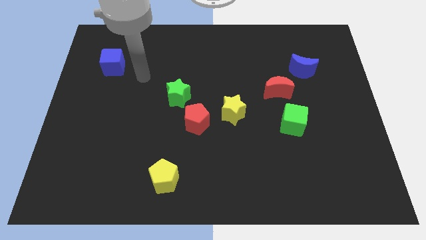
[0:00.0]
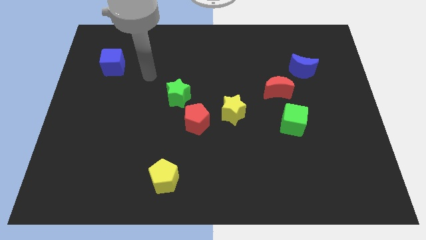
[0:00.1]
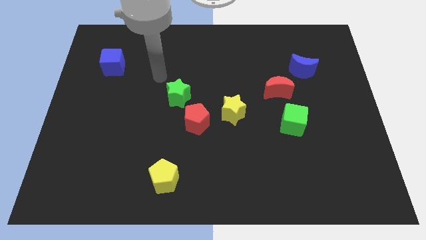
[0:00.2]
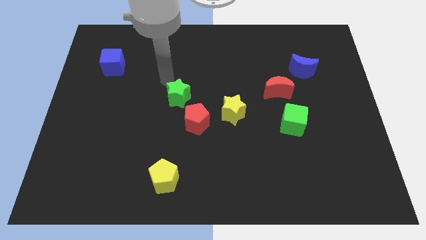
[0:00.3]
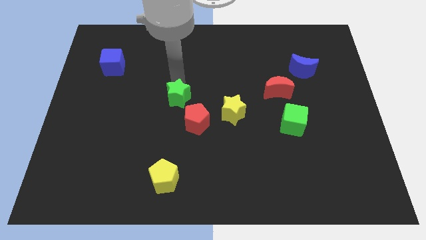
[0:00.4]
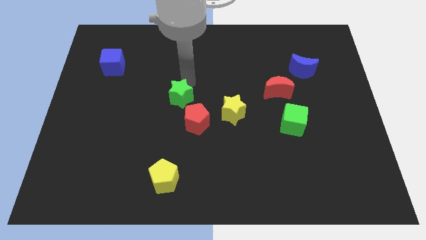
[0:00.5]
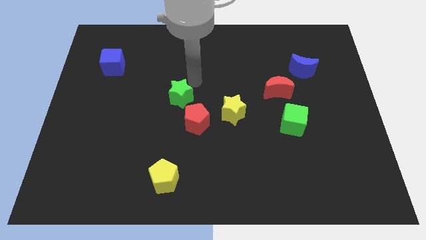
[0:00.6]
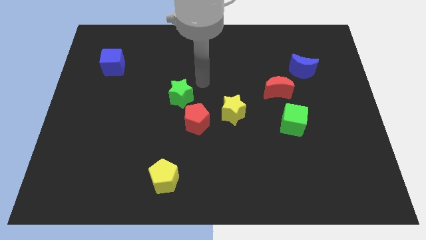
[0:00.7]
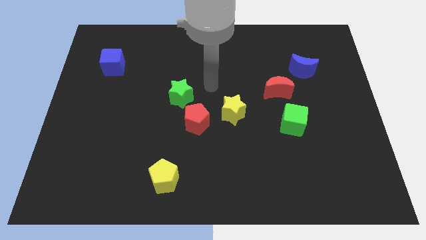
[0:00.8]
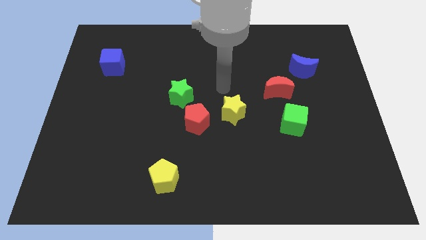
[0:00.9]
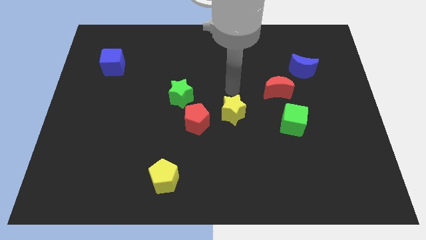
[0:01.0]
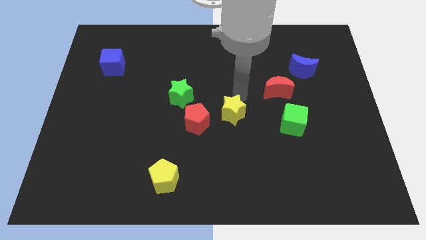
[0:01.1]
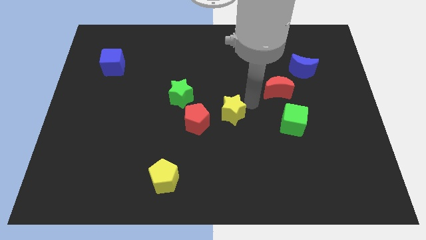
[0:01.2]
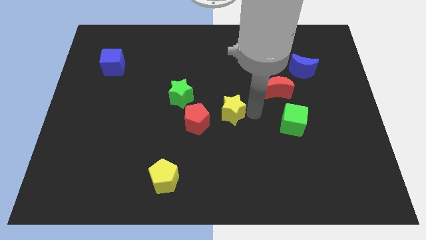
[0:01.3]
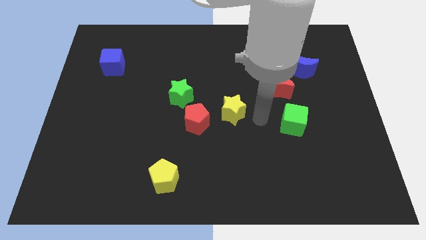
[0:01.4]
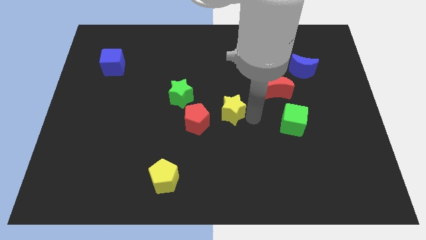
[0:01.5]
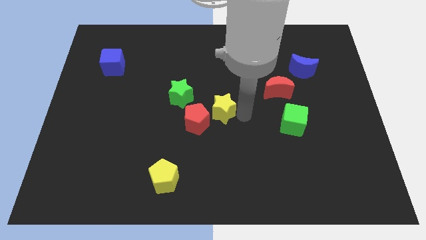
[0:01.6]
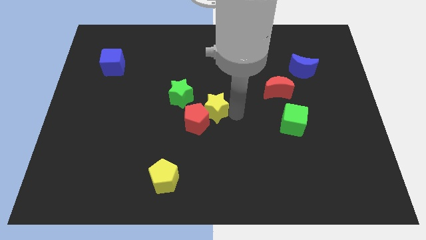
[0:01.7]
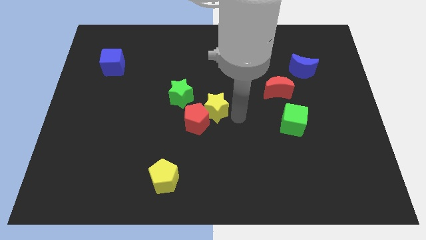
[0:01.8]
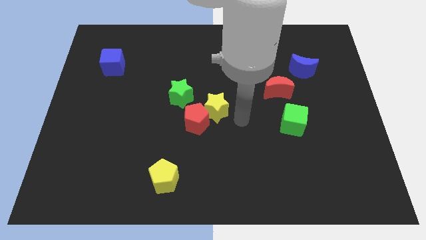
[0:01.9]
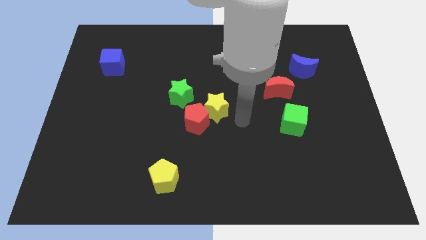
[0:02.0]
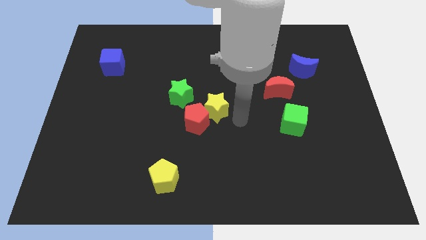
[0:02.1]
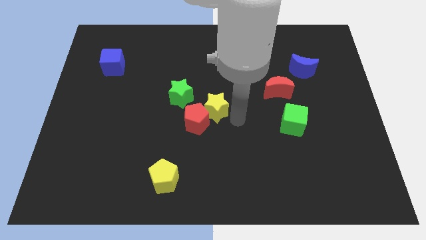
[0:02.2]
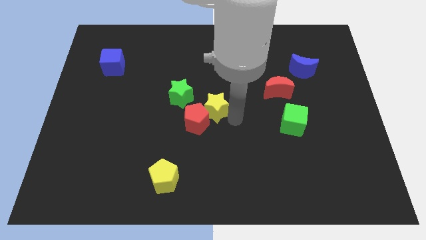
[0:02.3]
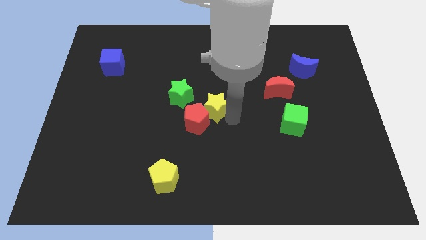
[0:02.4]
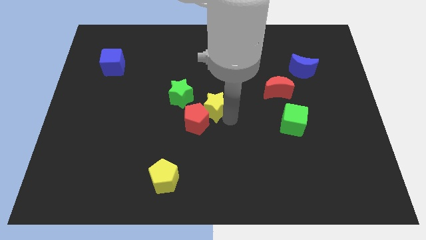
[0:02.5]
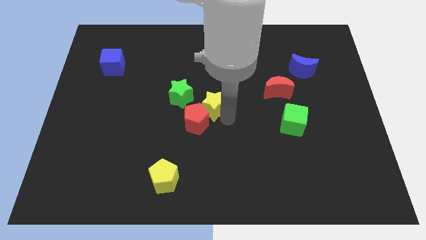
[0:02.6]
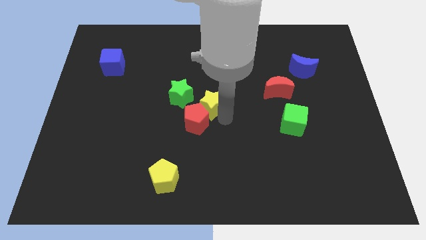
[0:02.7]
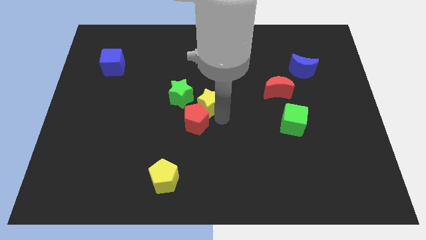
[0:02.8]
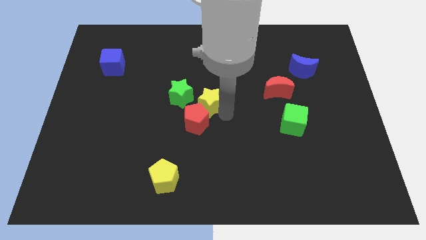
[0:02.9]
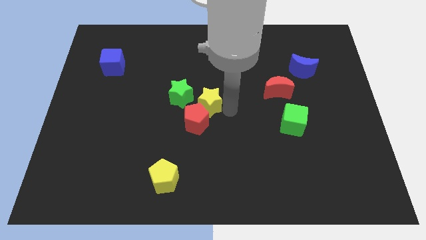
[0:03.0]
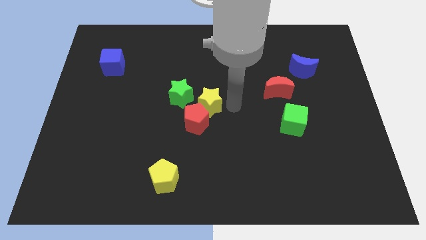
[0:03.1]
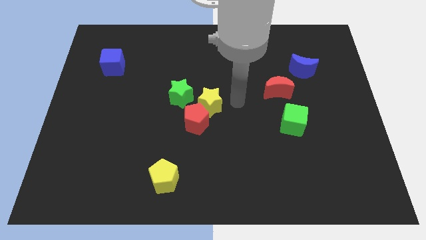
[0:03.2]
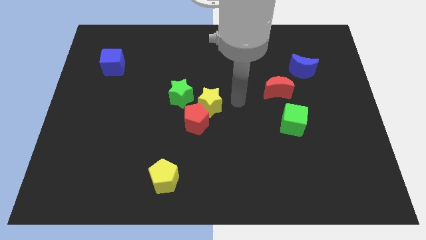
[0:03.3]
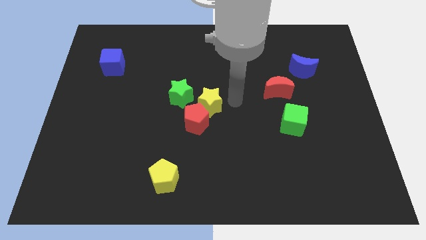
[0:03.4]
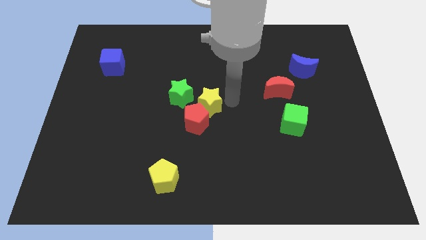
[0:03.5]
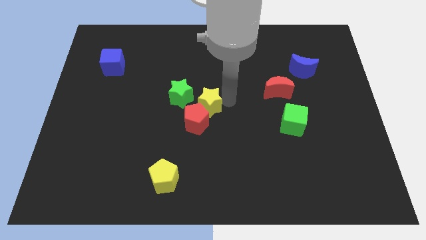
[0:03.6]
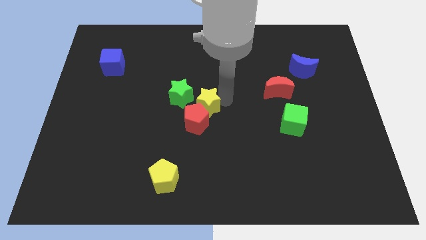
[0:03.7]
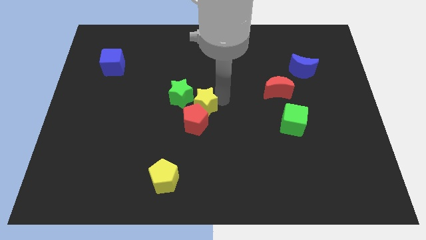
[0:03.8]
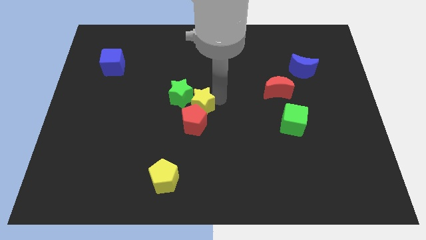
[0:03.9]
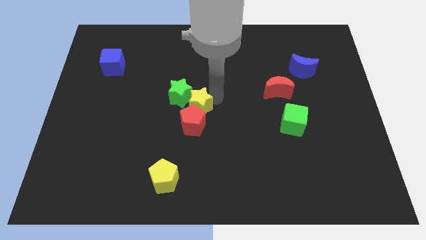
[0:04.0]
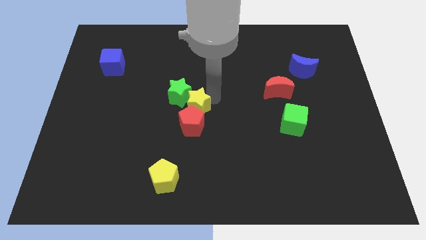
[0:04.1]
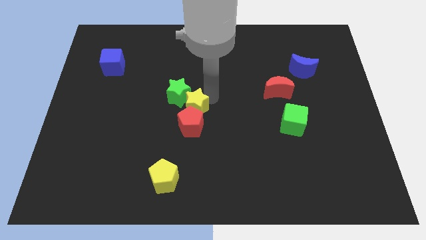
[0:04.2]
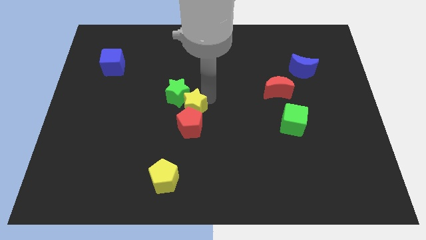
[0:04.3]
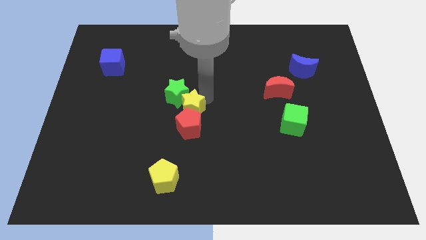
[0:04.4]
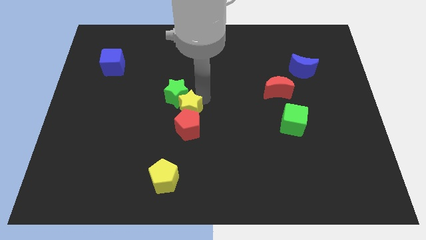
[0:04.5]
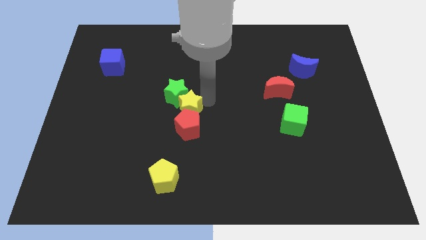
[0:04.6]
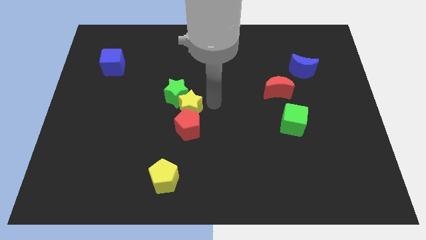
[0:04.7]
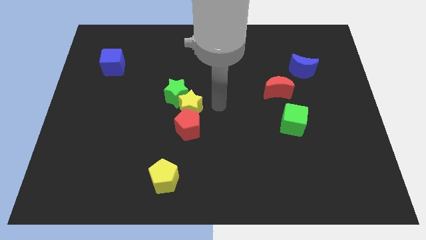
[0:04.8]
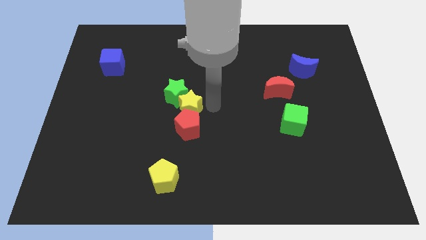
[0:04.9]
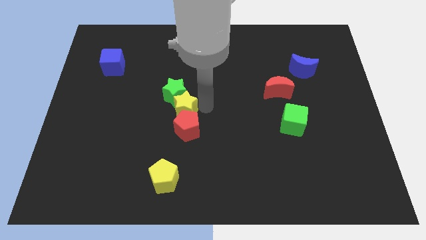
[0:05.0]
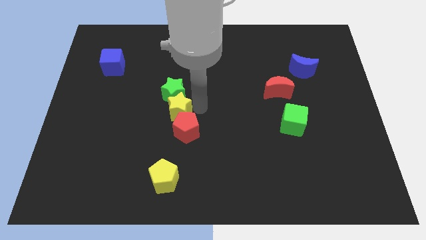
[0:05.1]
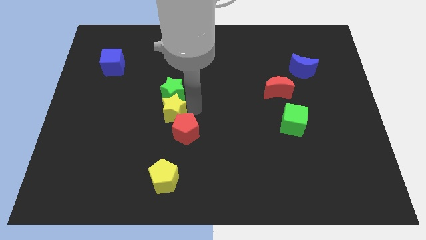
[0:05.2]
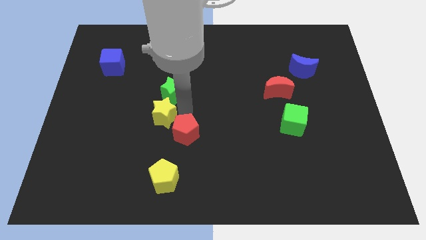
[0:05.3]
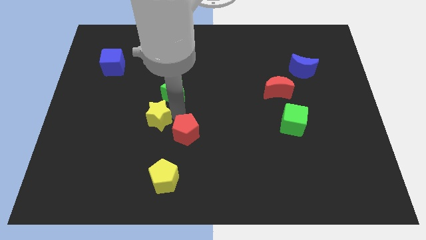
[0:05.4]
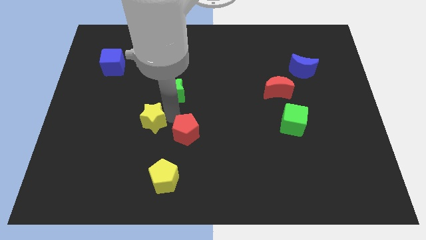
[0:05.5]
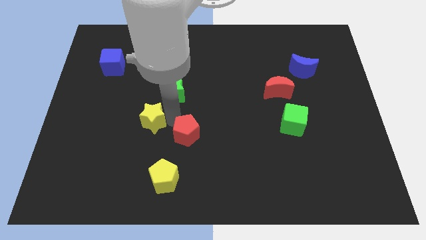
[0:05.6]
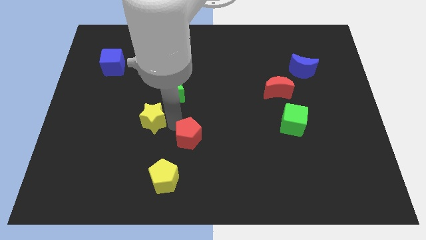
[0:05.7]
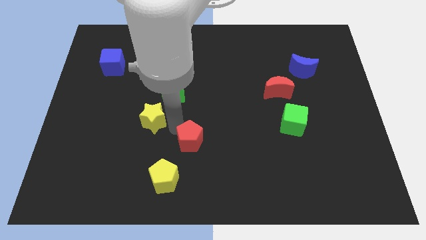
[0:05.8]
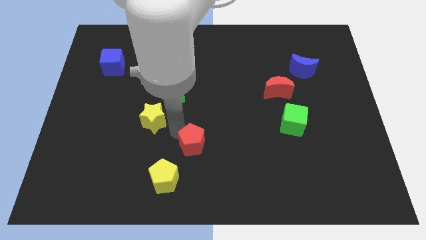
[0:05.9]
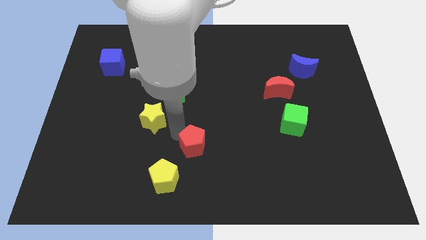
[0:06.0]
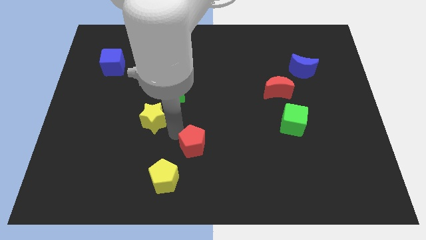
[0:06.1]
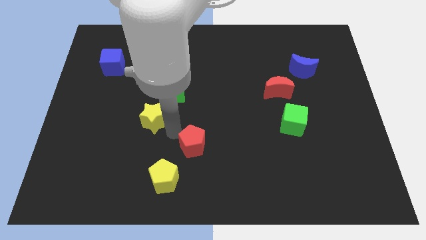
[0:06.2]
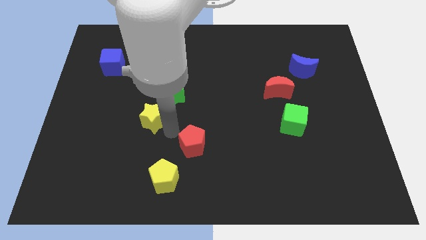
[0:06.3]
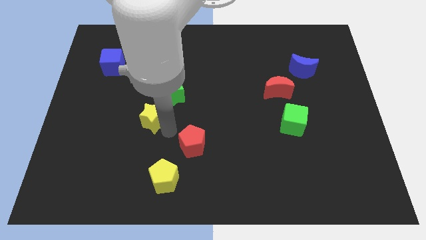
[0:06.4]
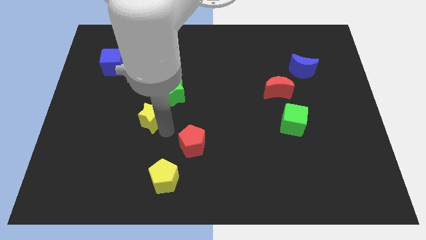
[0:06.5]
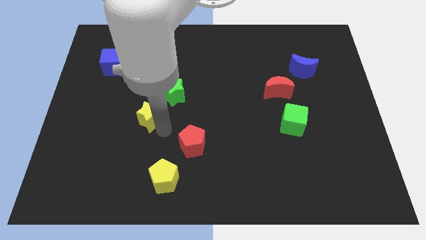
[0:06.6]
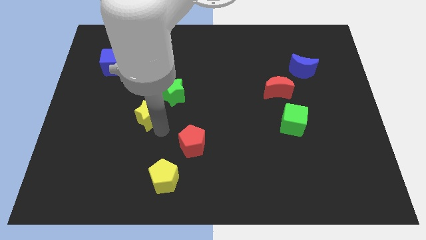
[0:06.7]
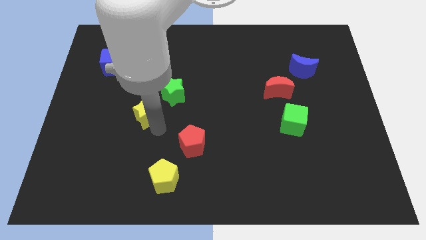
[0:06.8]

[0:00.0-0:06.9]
push the yellow star to the left

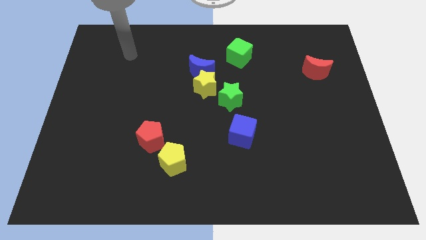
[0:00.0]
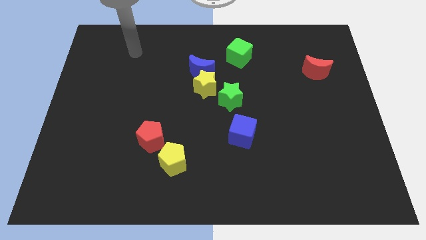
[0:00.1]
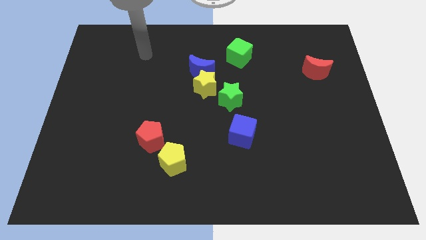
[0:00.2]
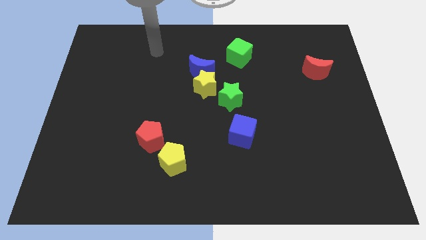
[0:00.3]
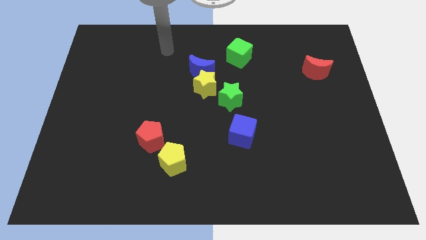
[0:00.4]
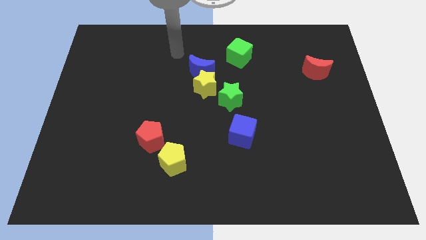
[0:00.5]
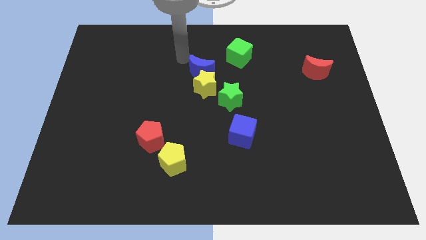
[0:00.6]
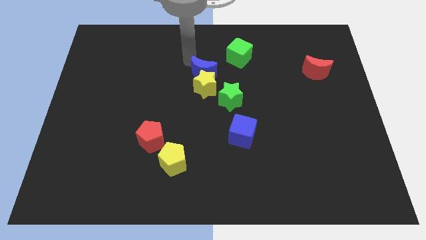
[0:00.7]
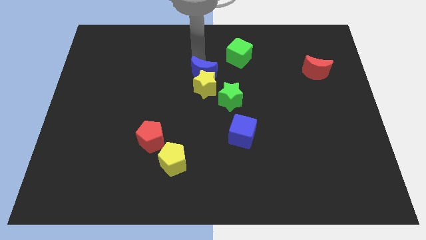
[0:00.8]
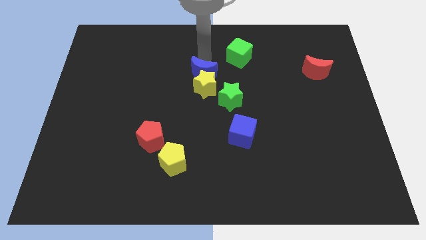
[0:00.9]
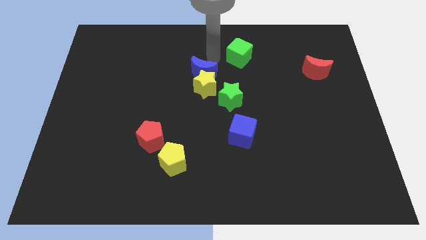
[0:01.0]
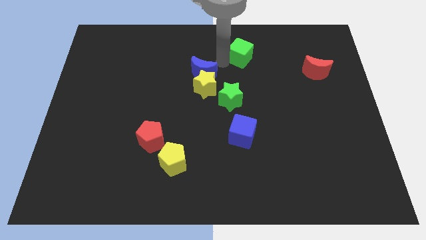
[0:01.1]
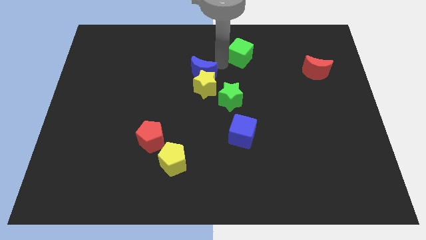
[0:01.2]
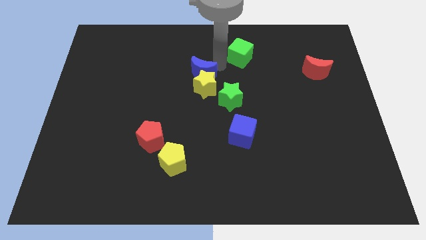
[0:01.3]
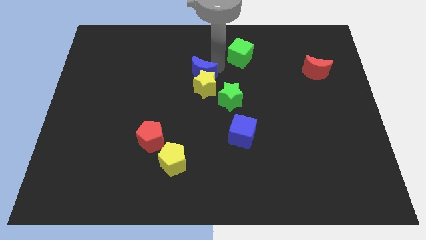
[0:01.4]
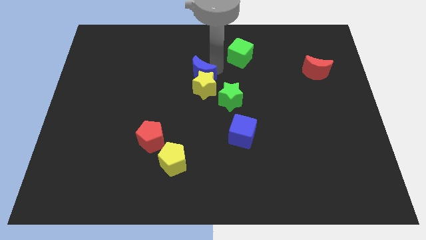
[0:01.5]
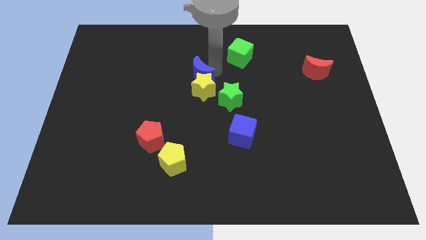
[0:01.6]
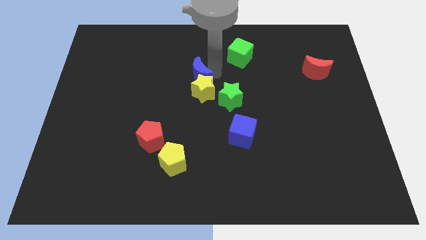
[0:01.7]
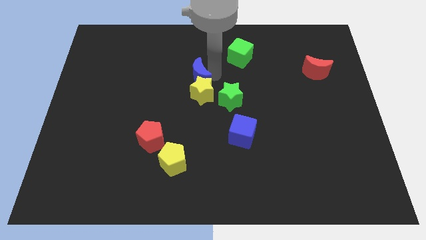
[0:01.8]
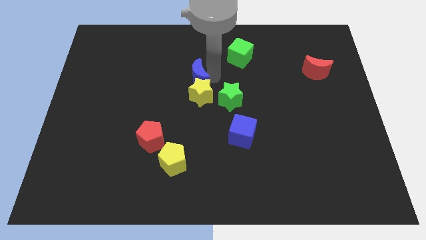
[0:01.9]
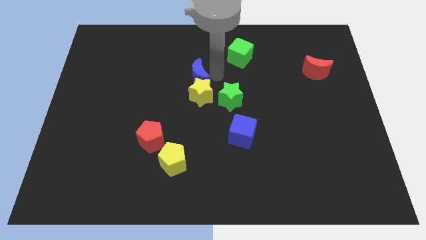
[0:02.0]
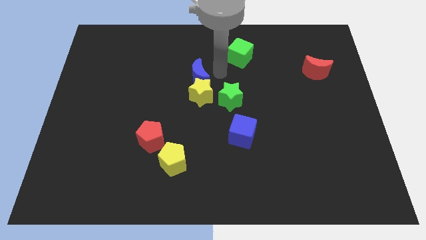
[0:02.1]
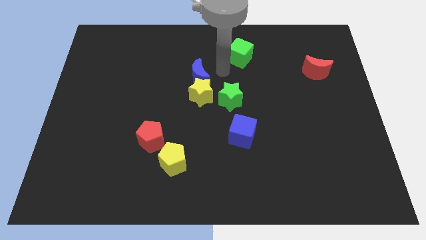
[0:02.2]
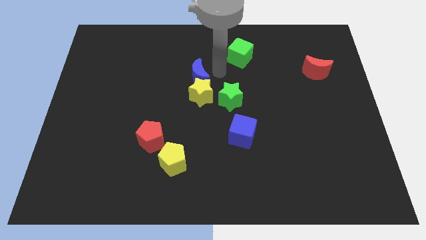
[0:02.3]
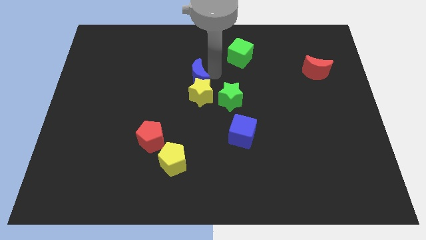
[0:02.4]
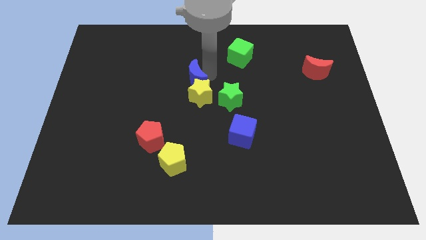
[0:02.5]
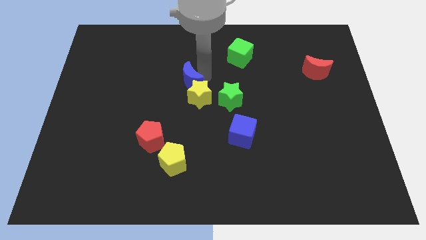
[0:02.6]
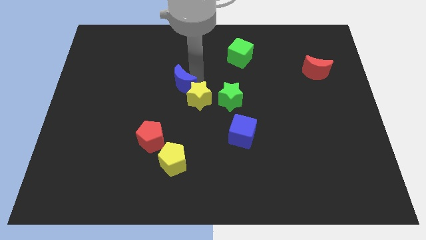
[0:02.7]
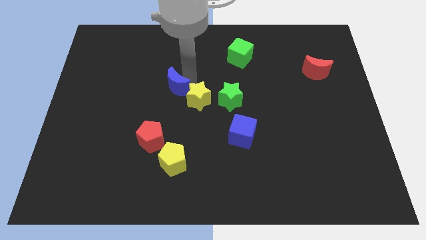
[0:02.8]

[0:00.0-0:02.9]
push the blue moon diagonally downwards and left slightly
